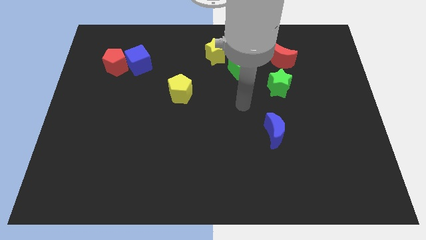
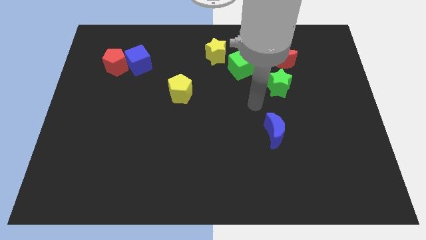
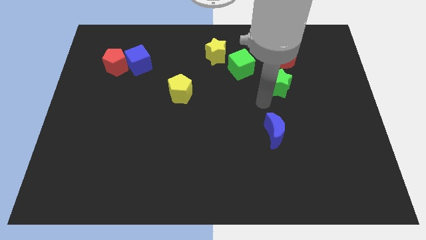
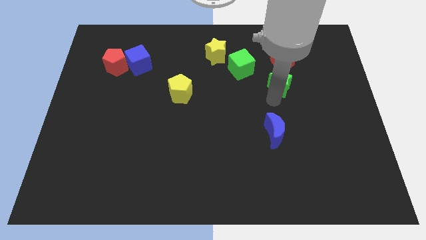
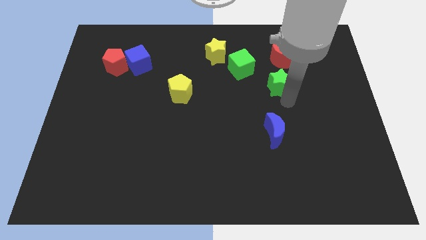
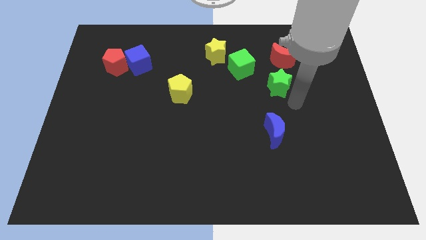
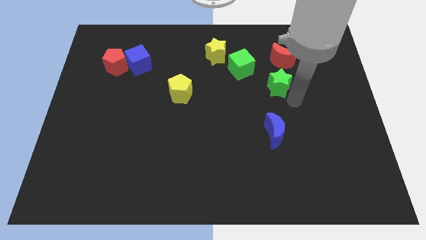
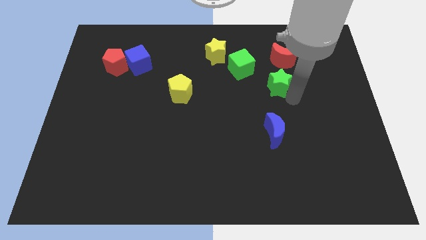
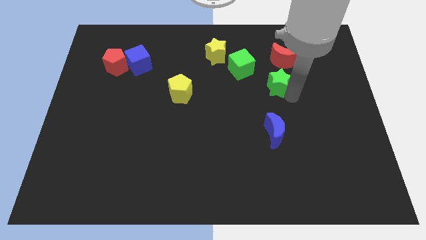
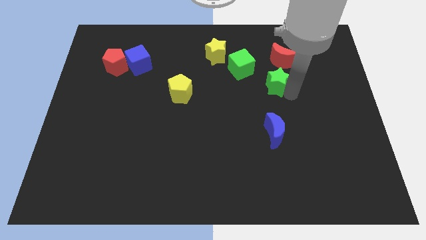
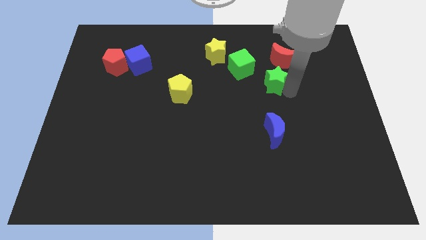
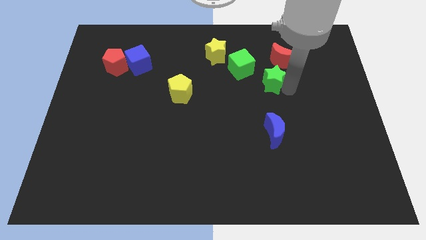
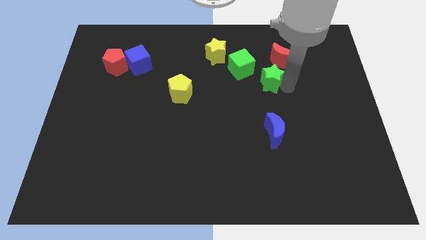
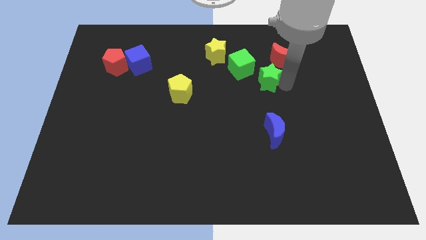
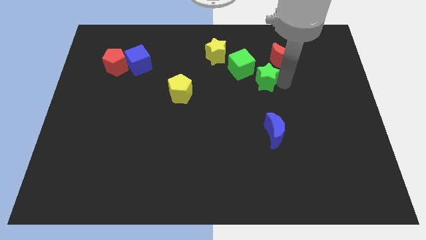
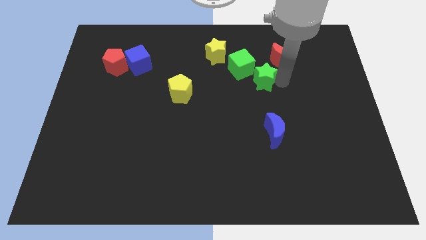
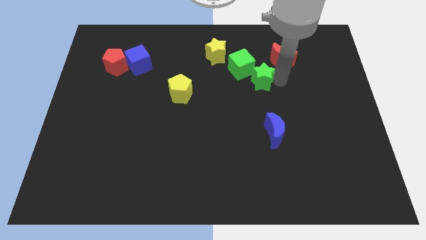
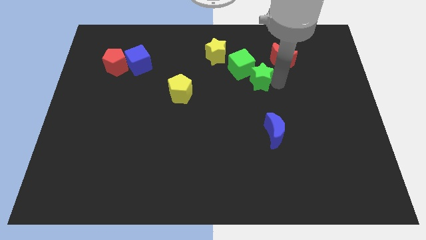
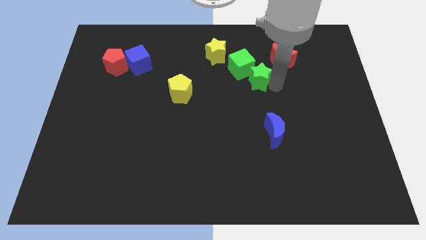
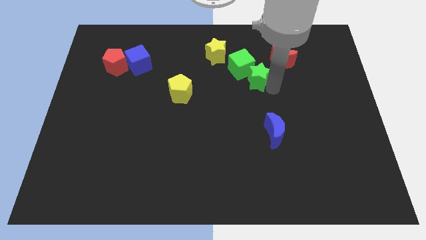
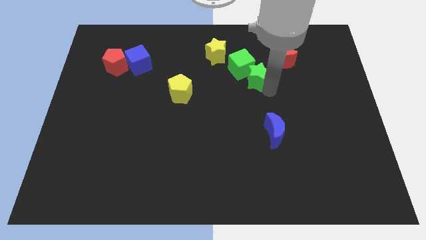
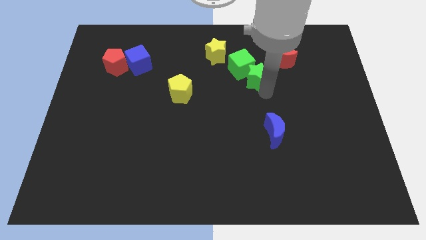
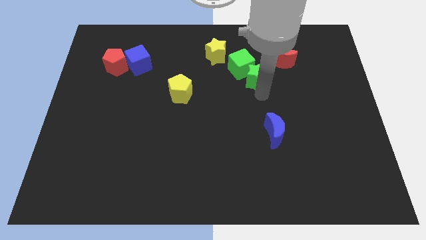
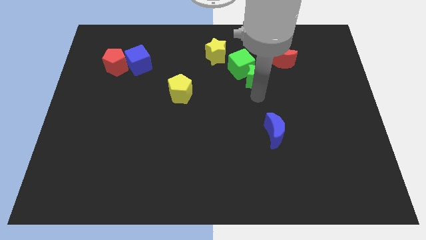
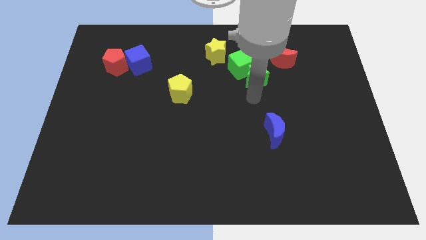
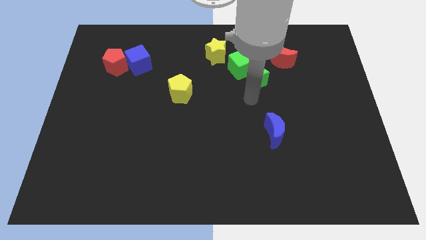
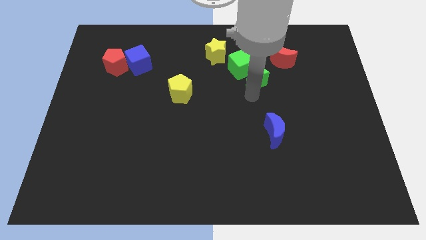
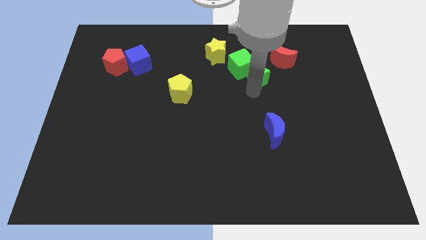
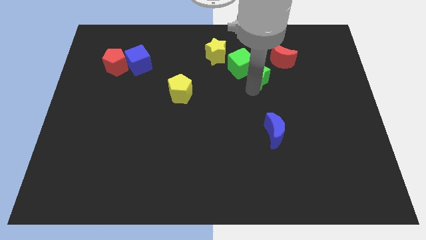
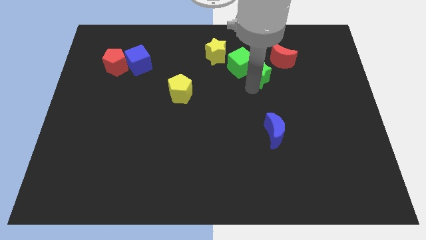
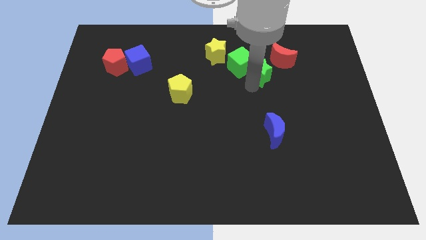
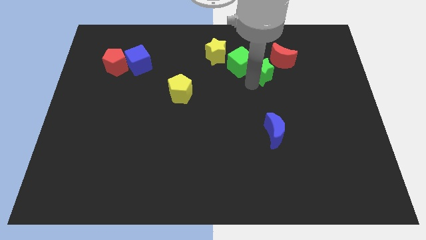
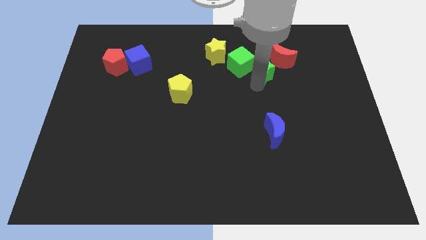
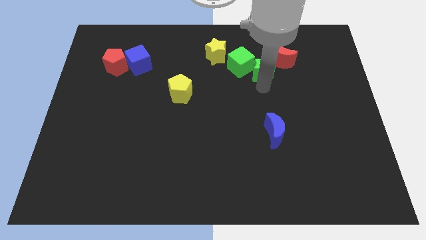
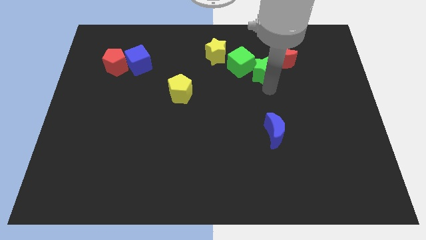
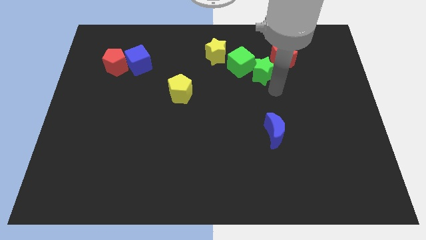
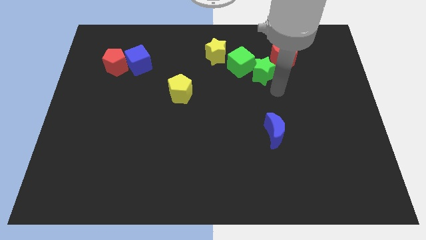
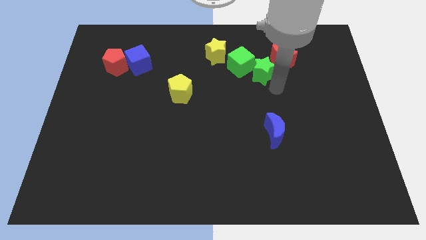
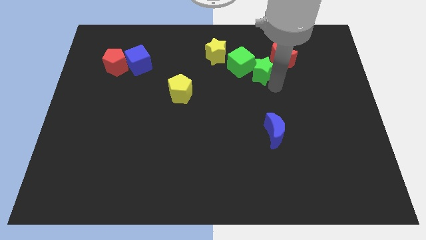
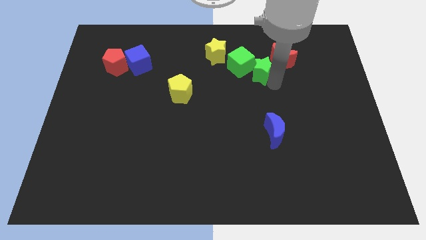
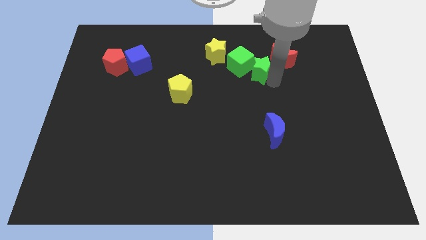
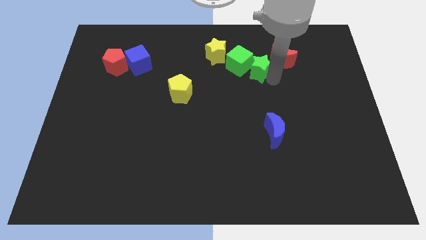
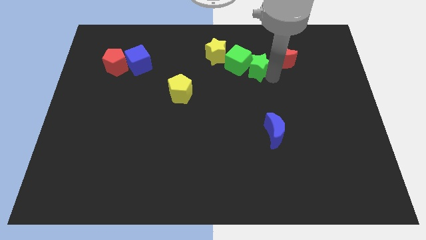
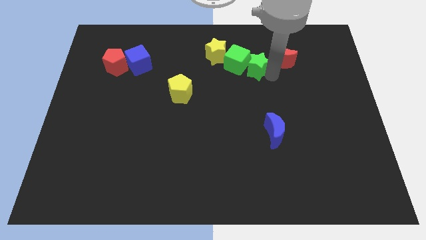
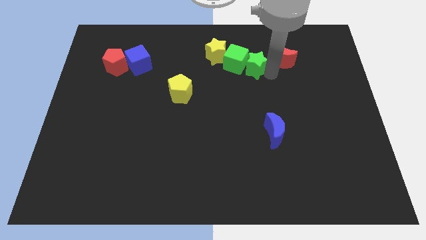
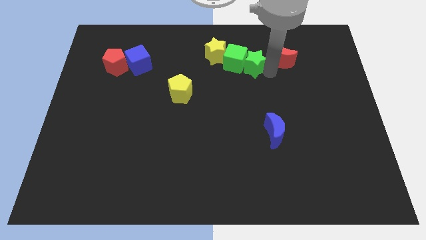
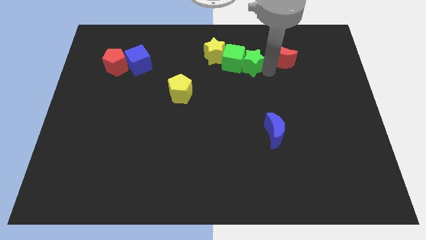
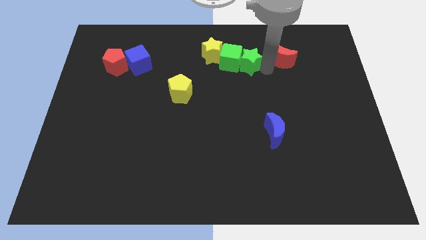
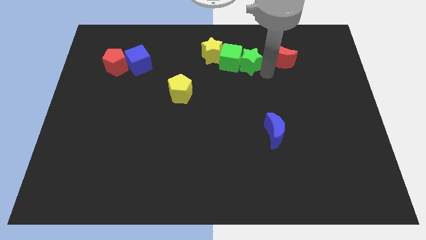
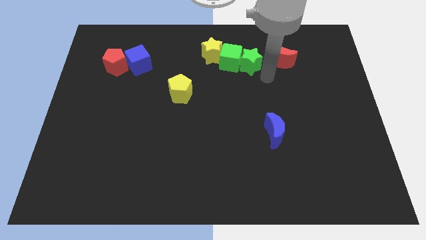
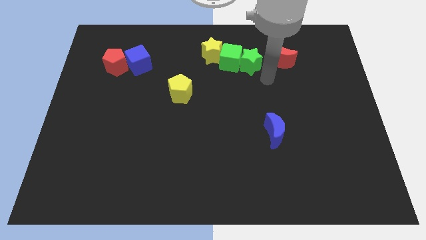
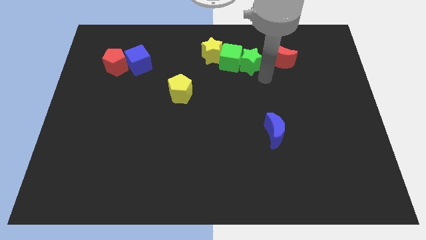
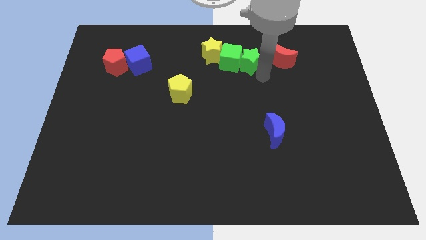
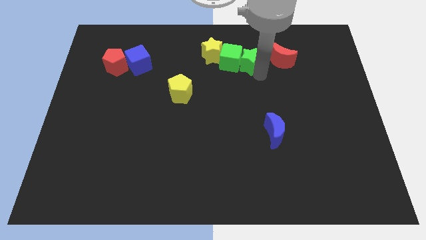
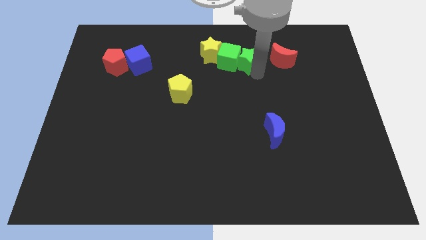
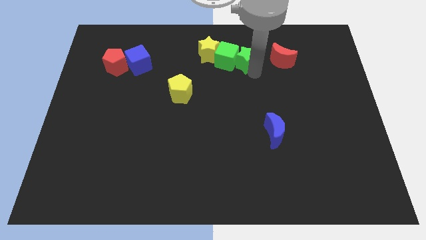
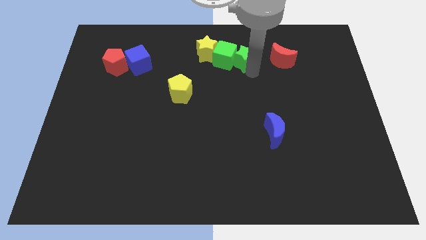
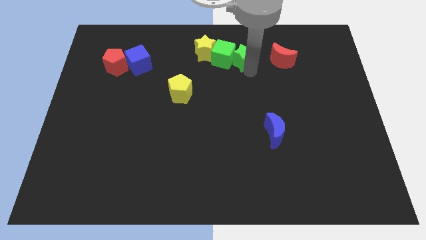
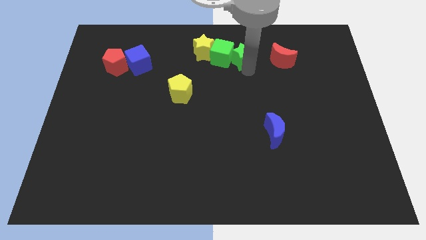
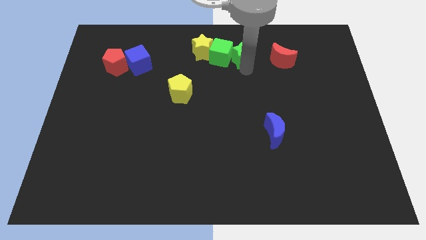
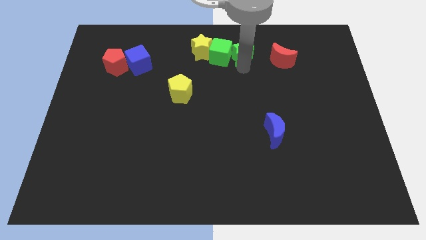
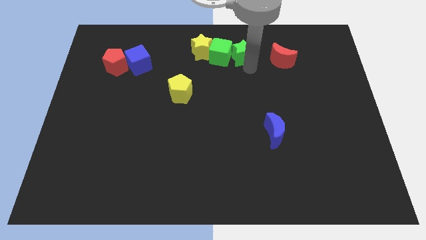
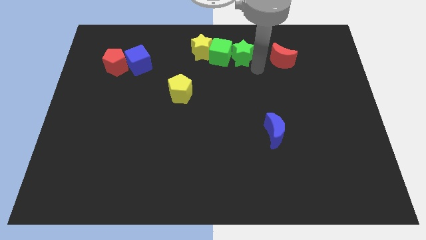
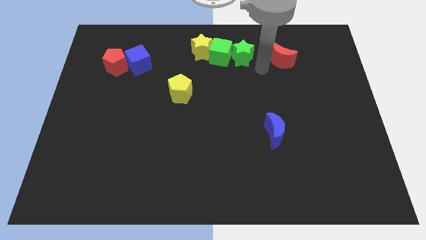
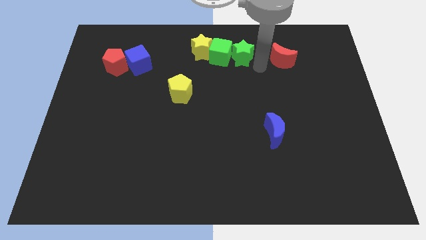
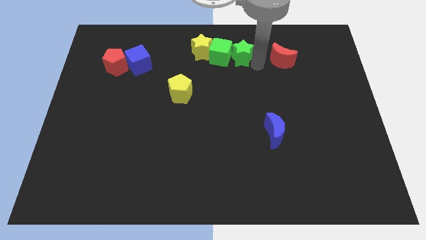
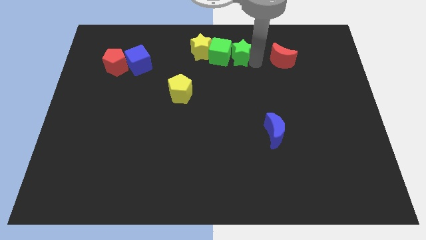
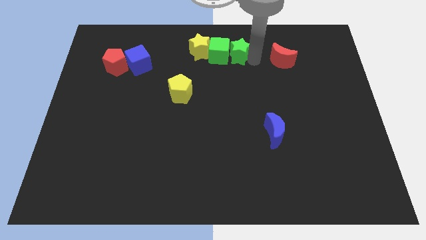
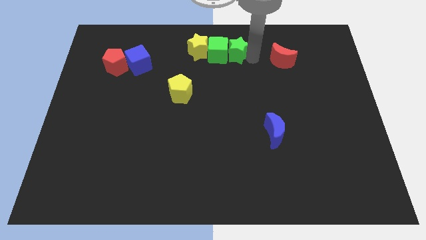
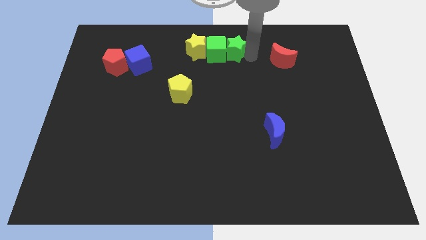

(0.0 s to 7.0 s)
push the green star to the top side
